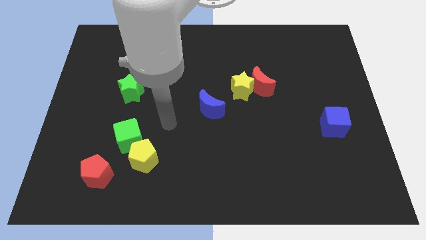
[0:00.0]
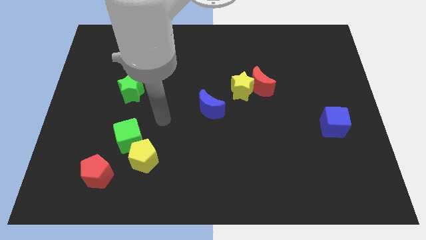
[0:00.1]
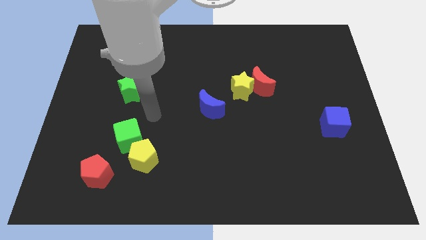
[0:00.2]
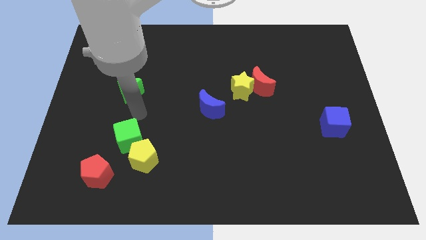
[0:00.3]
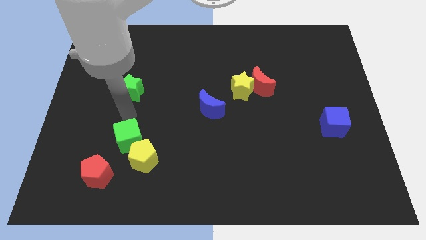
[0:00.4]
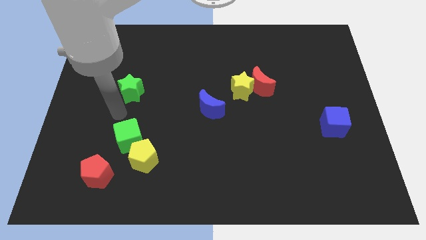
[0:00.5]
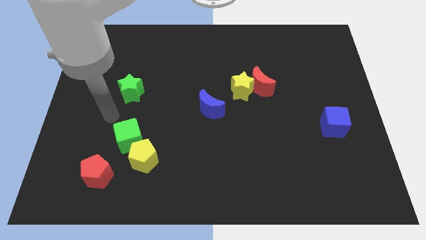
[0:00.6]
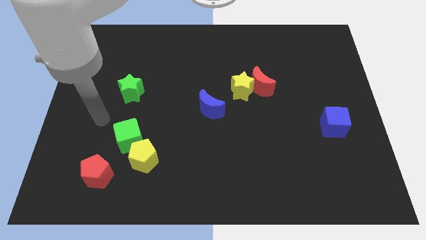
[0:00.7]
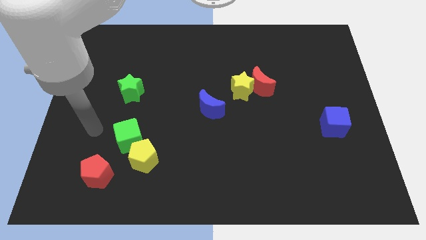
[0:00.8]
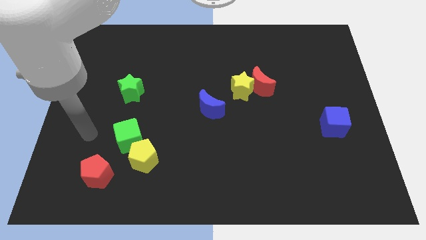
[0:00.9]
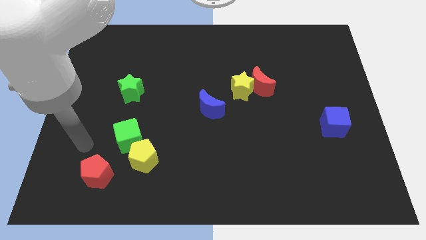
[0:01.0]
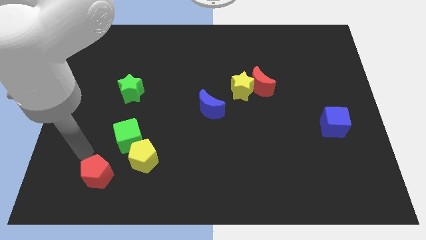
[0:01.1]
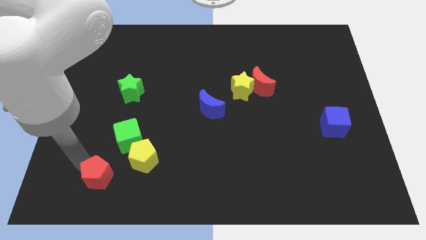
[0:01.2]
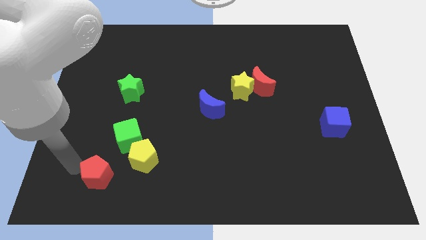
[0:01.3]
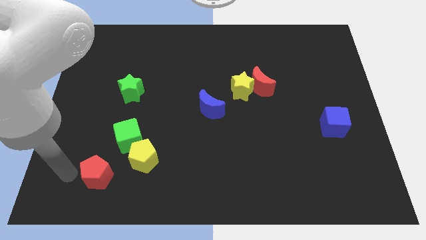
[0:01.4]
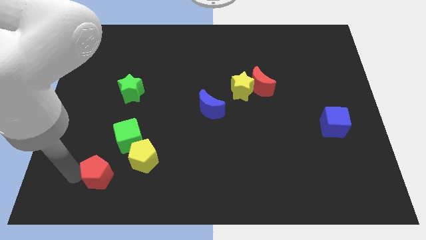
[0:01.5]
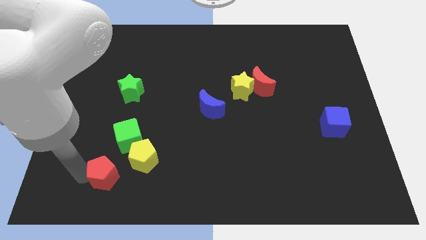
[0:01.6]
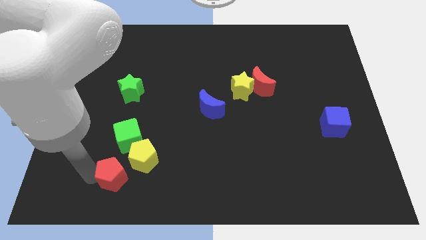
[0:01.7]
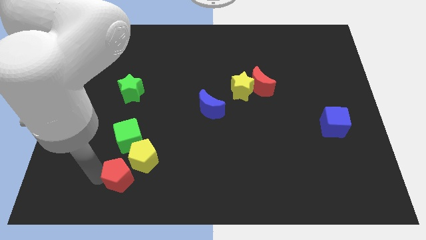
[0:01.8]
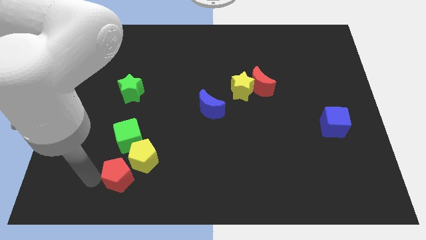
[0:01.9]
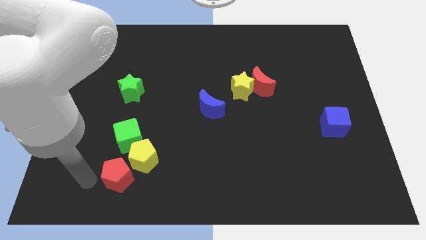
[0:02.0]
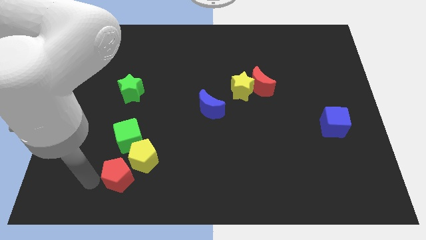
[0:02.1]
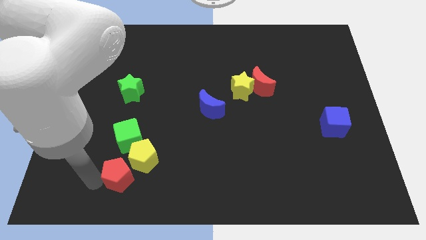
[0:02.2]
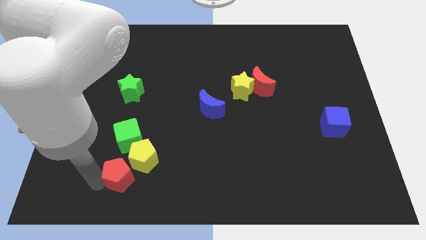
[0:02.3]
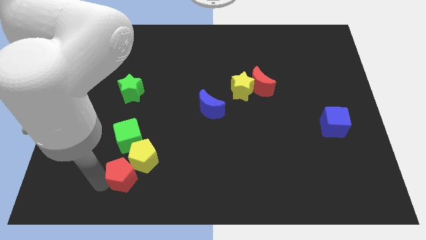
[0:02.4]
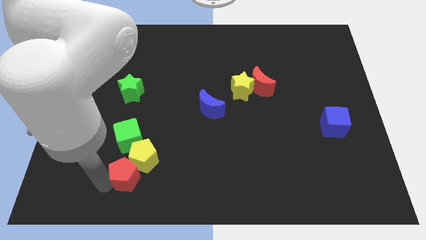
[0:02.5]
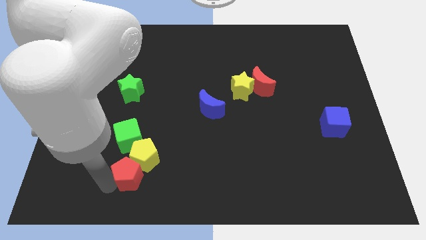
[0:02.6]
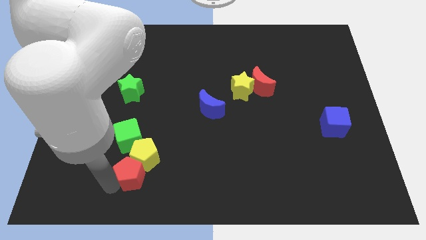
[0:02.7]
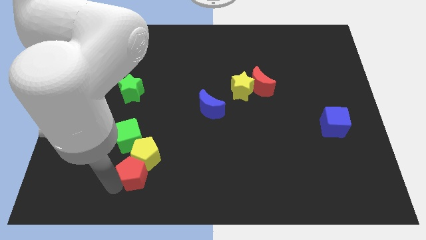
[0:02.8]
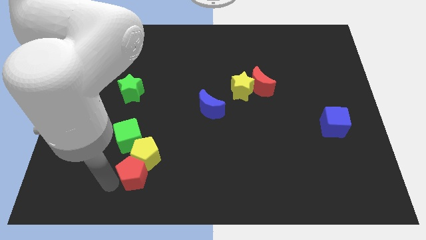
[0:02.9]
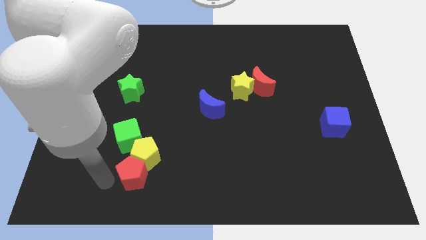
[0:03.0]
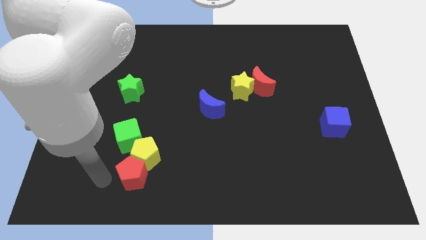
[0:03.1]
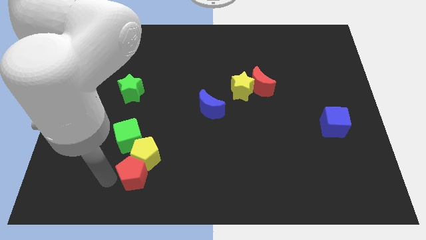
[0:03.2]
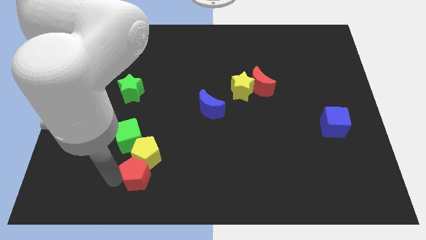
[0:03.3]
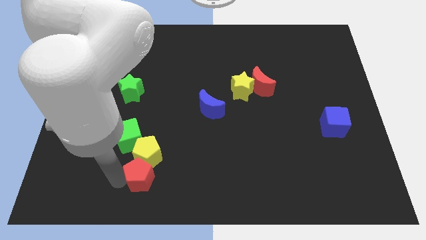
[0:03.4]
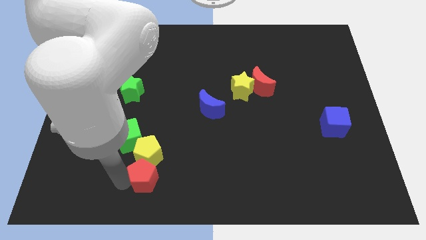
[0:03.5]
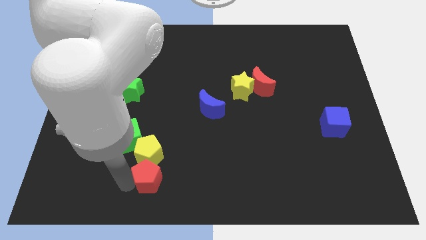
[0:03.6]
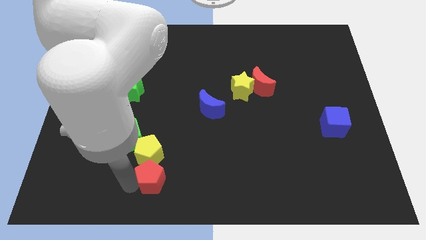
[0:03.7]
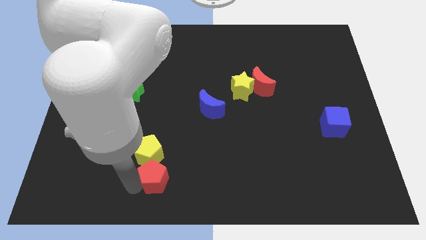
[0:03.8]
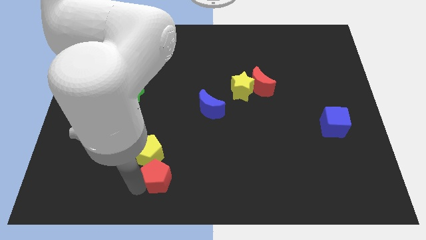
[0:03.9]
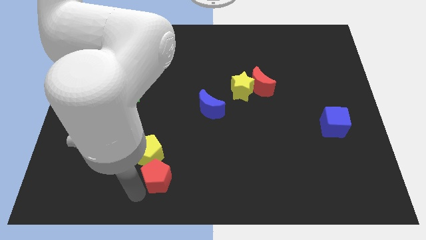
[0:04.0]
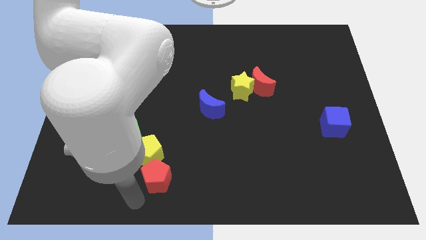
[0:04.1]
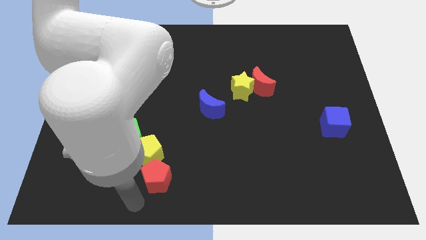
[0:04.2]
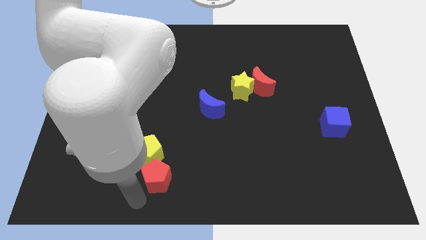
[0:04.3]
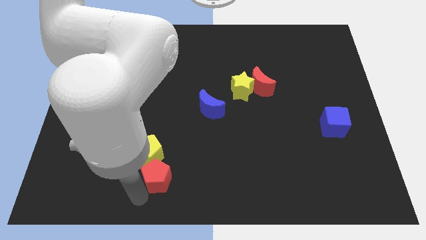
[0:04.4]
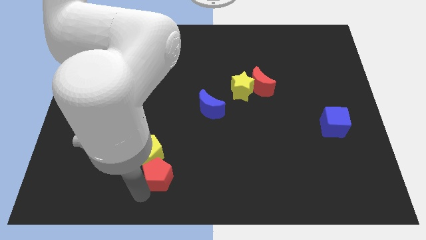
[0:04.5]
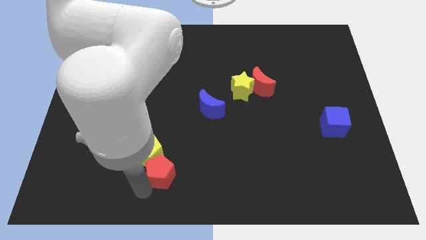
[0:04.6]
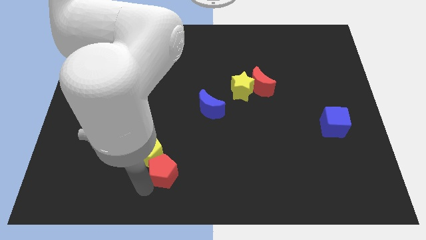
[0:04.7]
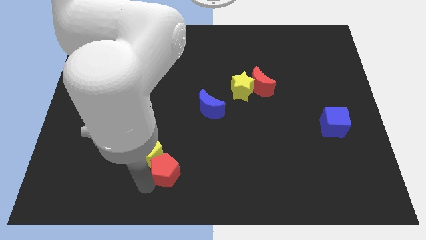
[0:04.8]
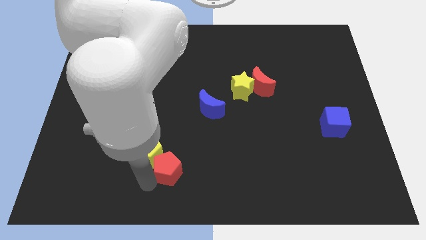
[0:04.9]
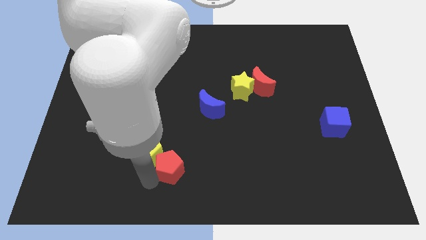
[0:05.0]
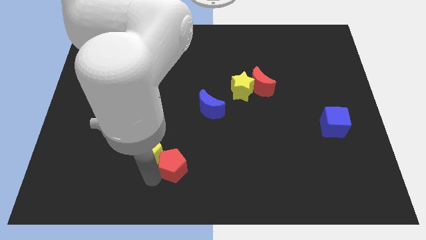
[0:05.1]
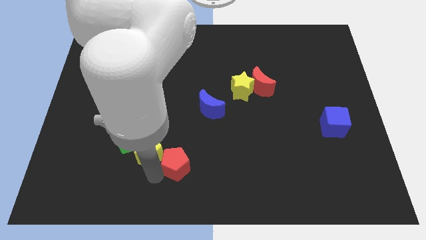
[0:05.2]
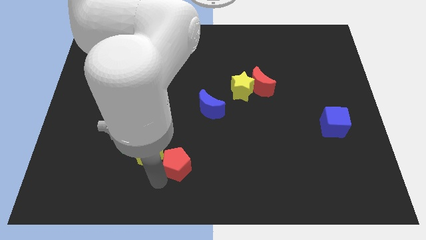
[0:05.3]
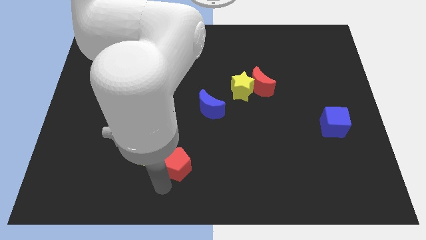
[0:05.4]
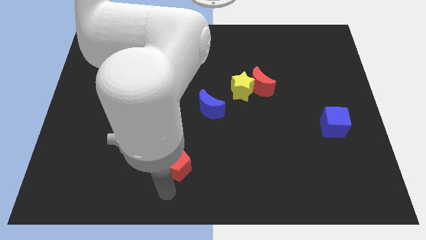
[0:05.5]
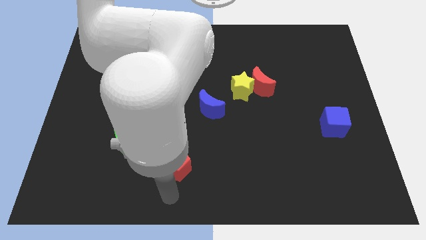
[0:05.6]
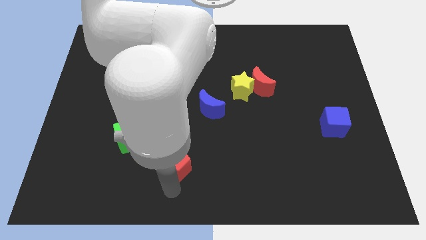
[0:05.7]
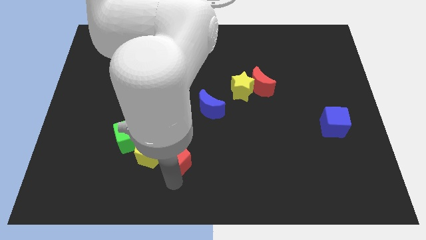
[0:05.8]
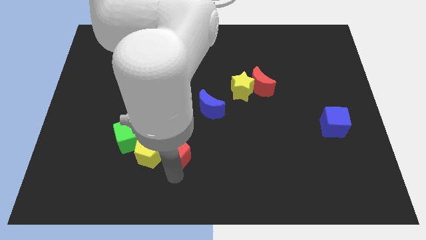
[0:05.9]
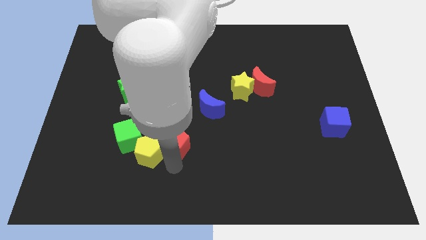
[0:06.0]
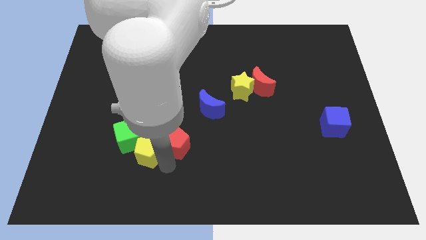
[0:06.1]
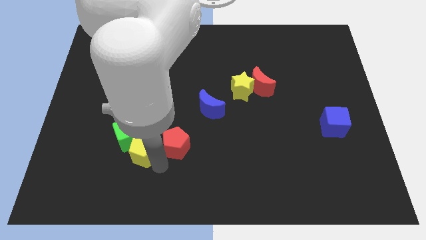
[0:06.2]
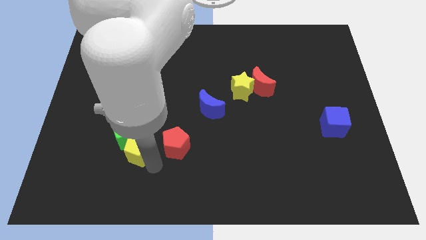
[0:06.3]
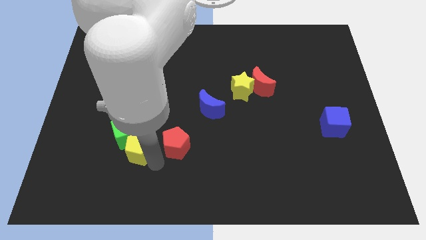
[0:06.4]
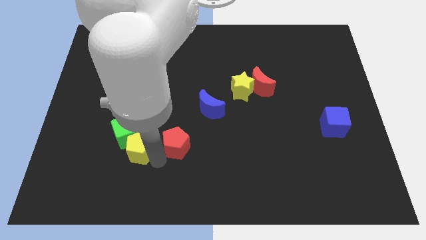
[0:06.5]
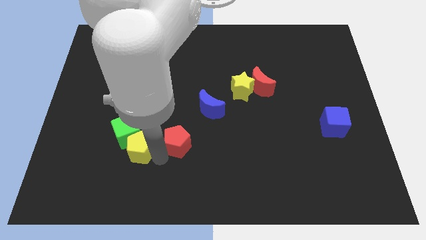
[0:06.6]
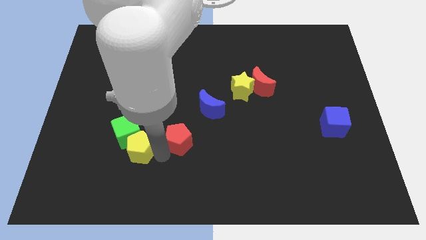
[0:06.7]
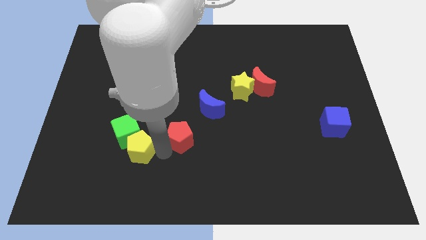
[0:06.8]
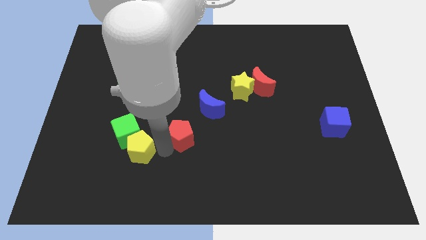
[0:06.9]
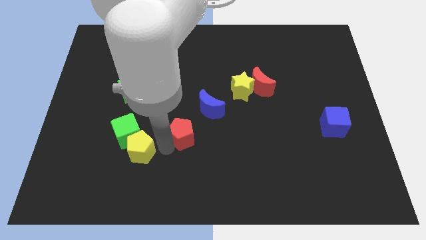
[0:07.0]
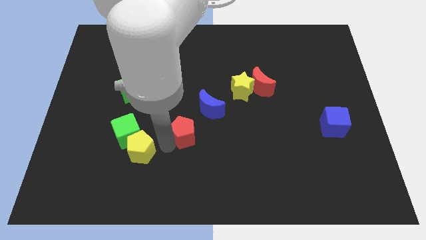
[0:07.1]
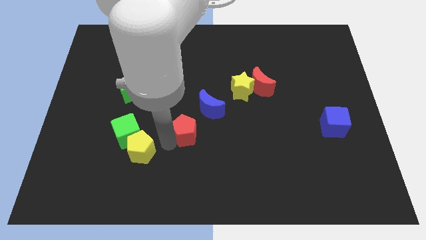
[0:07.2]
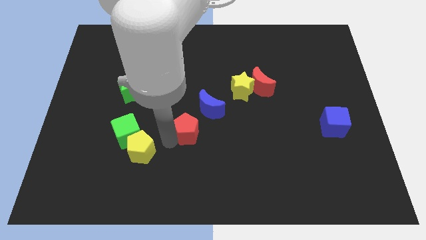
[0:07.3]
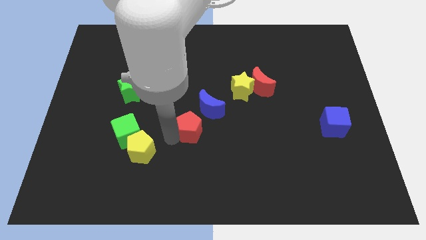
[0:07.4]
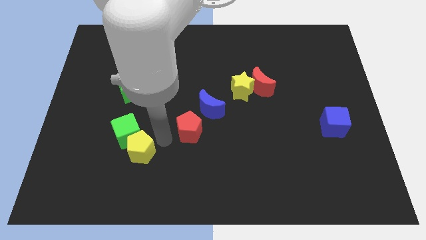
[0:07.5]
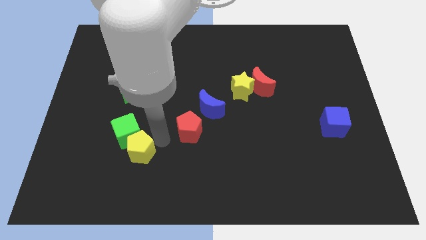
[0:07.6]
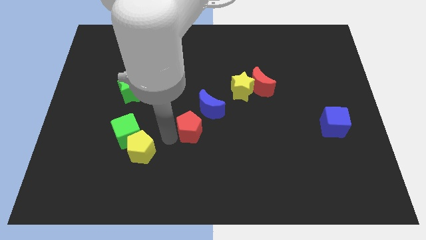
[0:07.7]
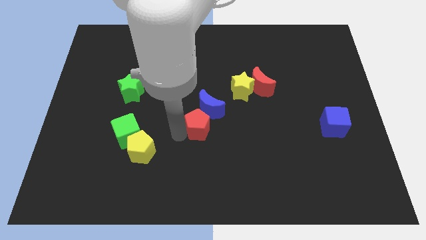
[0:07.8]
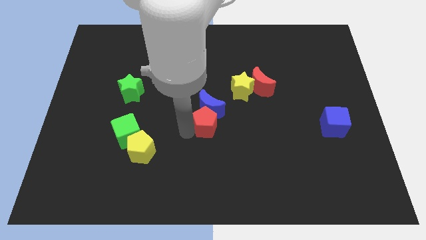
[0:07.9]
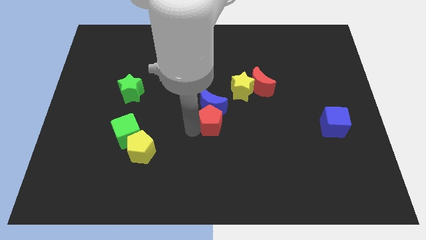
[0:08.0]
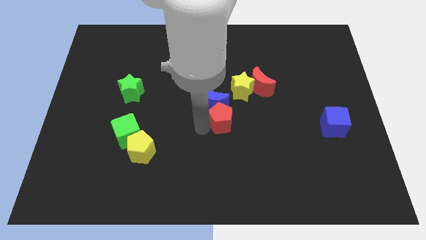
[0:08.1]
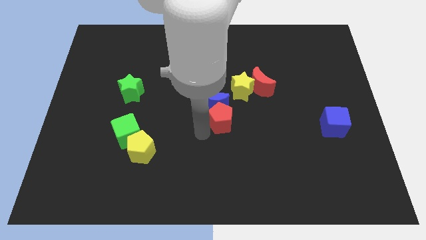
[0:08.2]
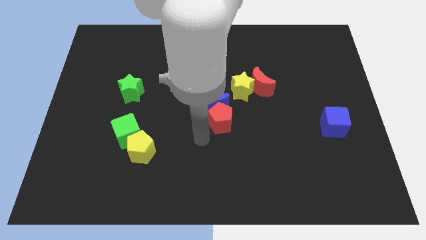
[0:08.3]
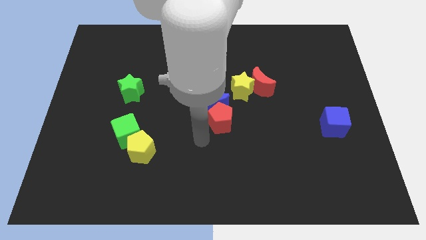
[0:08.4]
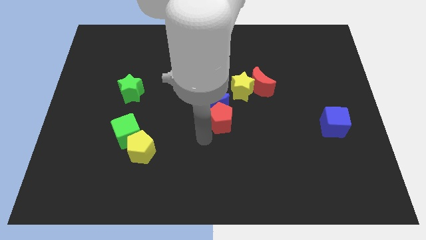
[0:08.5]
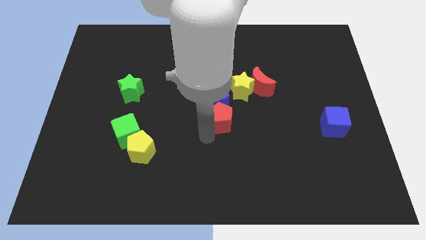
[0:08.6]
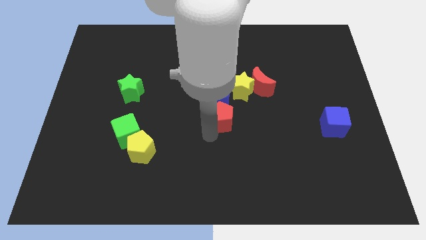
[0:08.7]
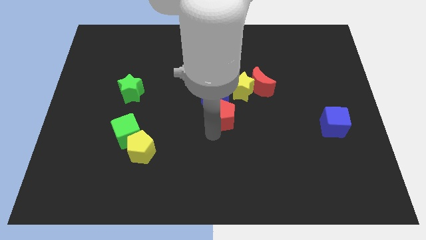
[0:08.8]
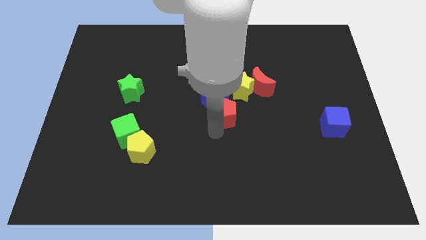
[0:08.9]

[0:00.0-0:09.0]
move the red pentagon to the bottom left side of the red moon
